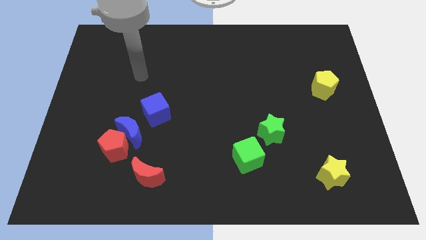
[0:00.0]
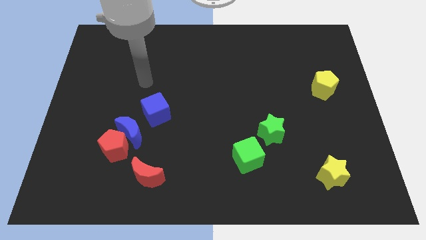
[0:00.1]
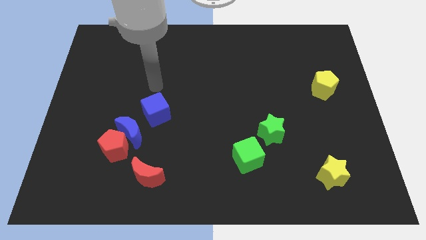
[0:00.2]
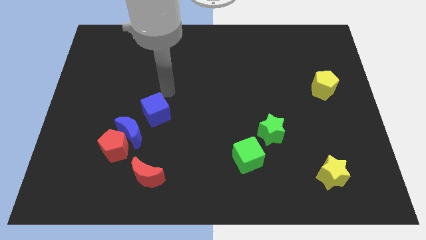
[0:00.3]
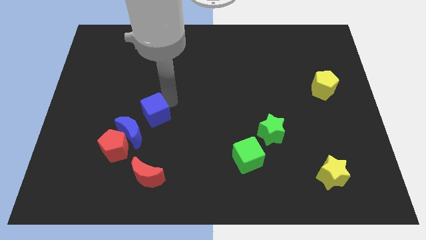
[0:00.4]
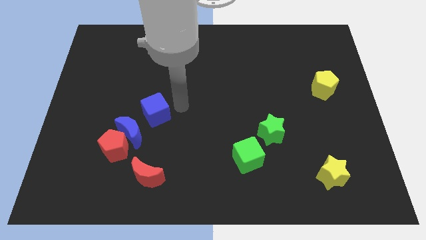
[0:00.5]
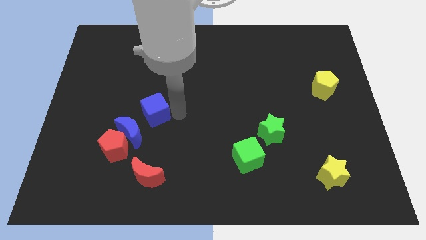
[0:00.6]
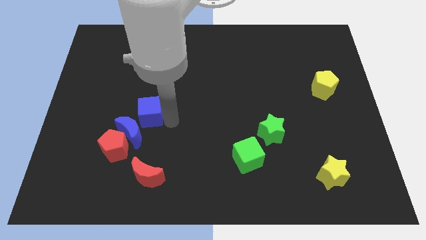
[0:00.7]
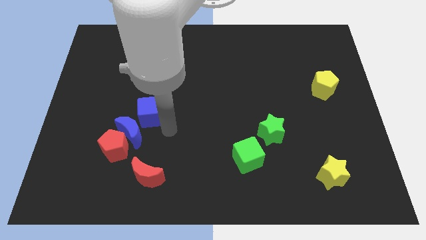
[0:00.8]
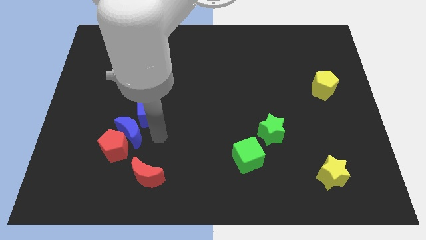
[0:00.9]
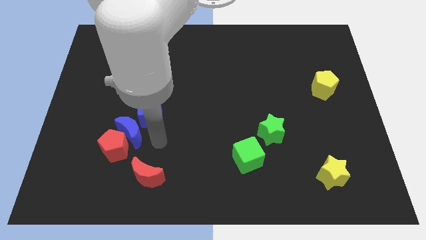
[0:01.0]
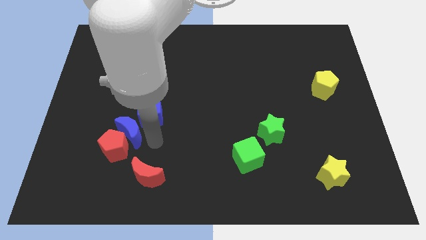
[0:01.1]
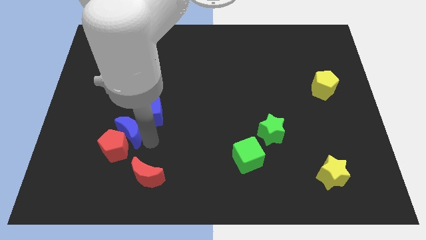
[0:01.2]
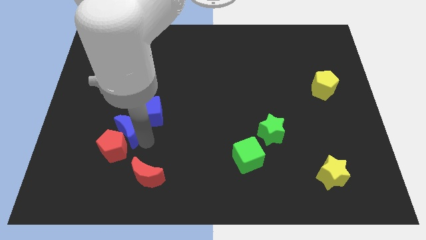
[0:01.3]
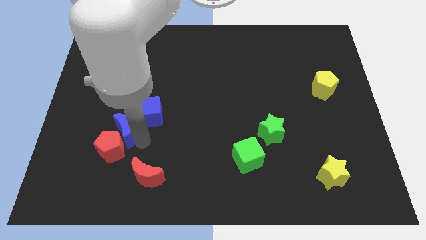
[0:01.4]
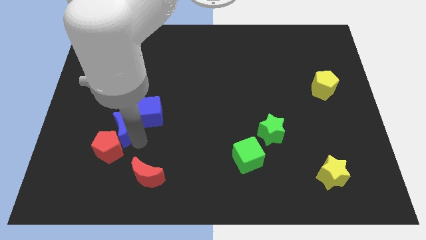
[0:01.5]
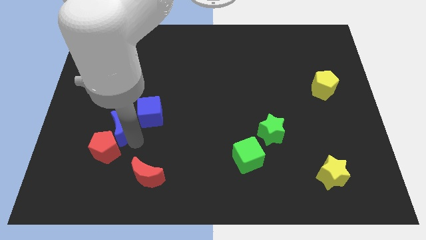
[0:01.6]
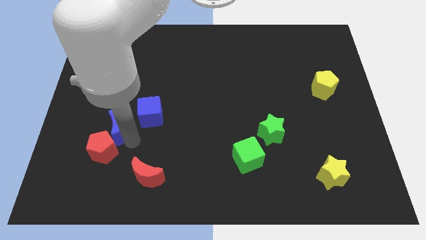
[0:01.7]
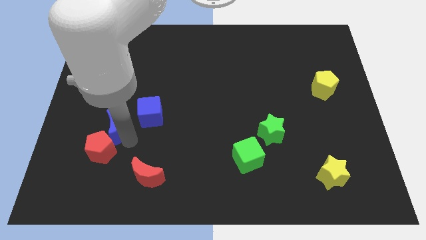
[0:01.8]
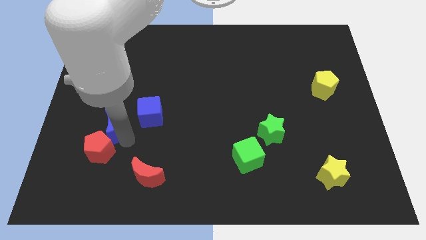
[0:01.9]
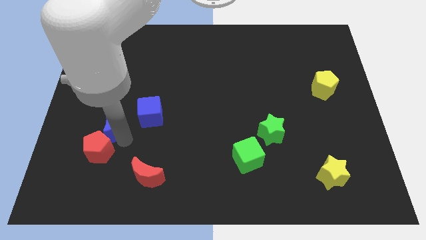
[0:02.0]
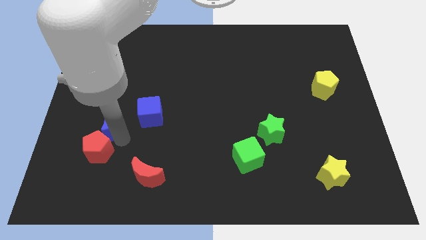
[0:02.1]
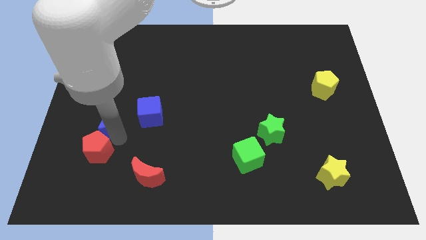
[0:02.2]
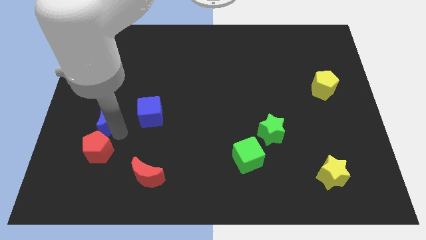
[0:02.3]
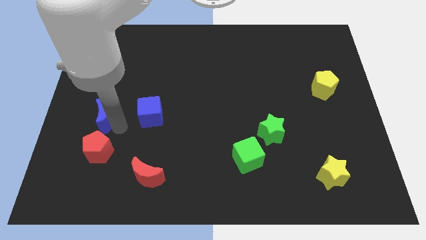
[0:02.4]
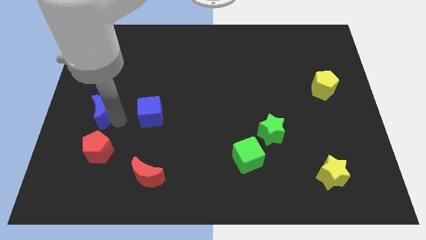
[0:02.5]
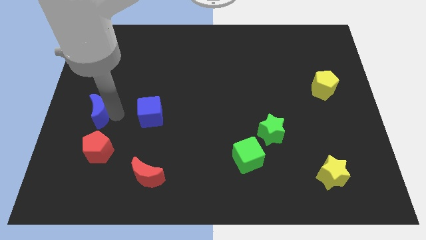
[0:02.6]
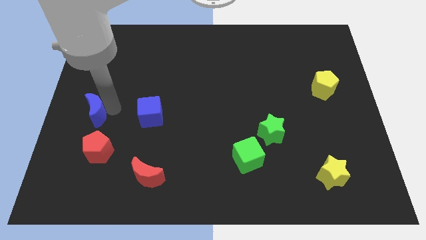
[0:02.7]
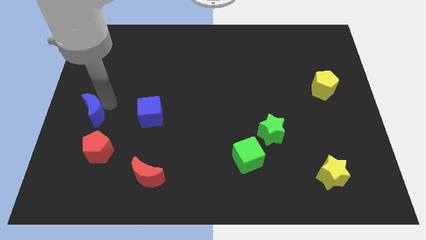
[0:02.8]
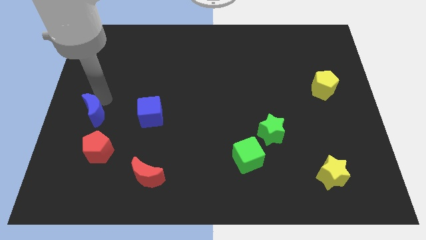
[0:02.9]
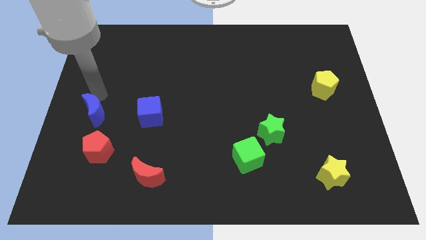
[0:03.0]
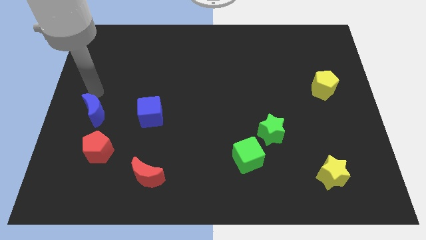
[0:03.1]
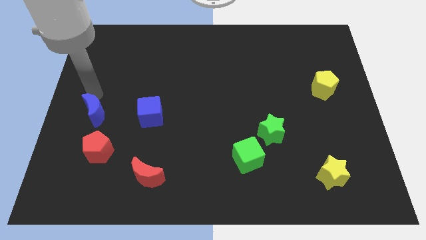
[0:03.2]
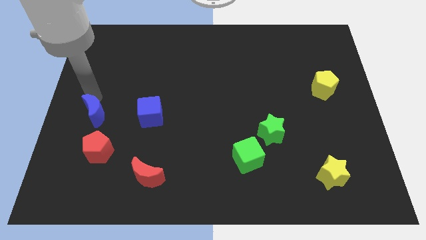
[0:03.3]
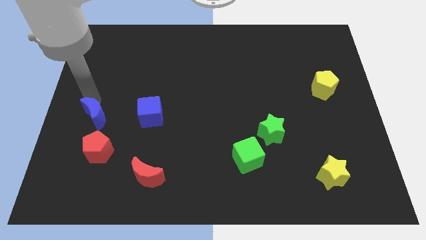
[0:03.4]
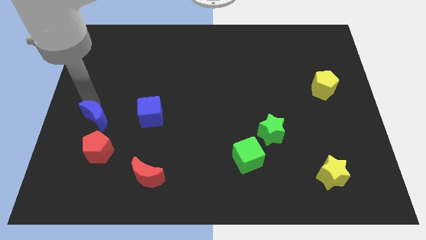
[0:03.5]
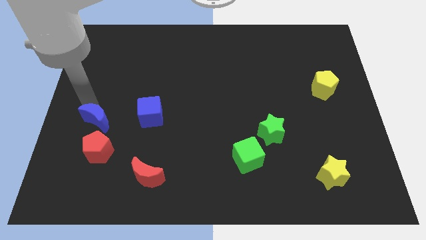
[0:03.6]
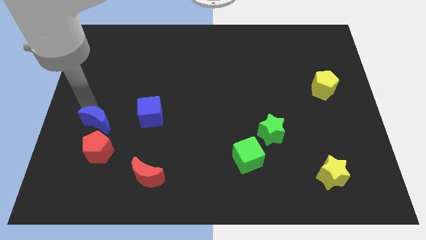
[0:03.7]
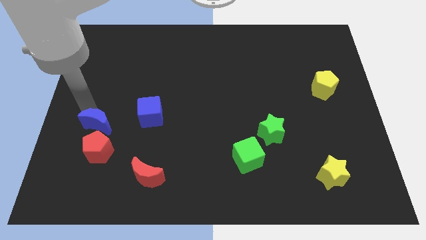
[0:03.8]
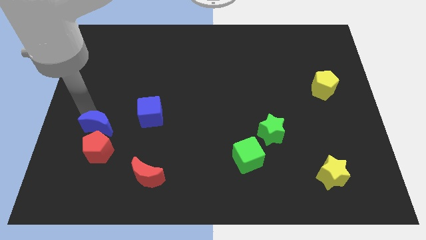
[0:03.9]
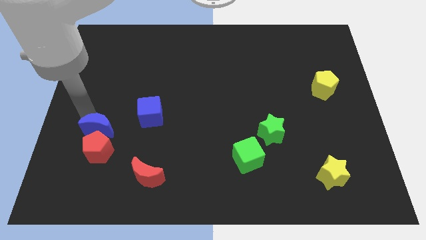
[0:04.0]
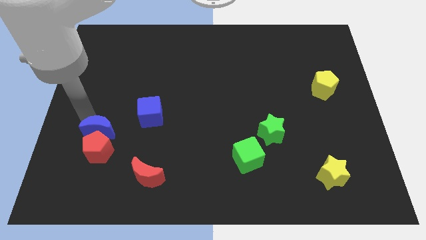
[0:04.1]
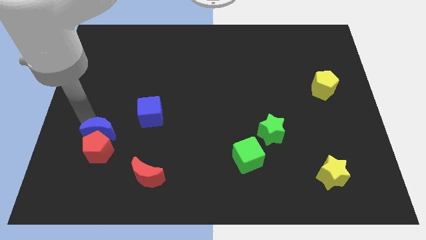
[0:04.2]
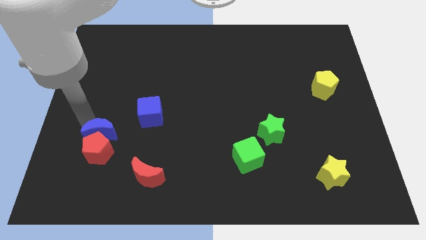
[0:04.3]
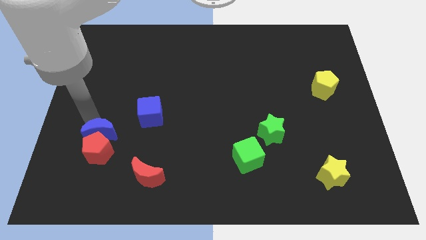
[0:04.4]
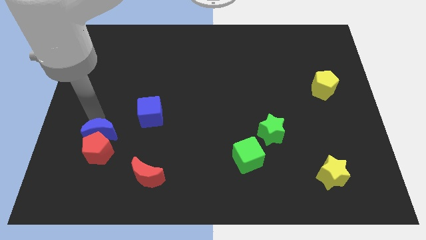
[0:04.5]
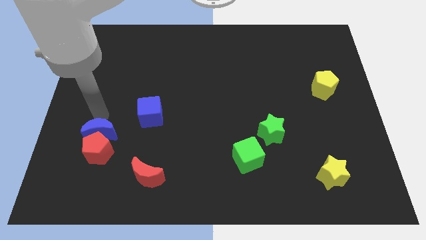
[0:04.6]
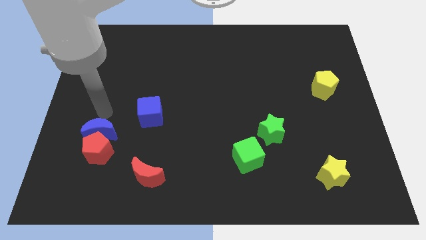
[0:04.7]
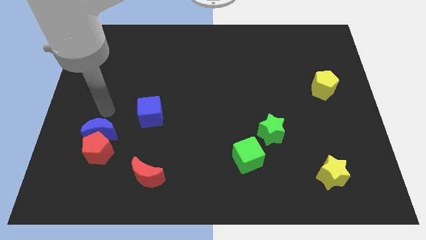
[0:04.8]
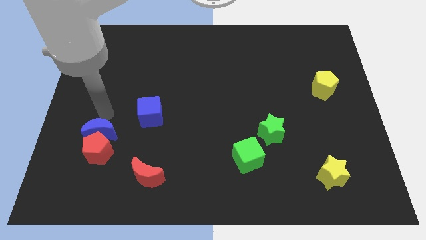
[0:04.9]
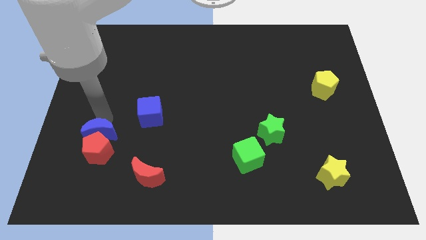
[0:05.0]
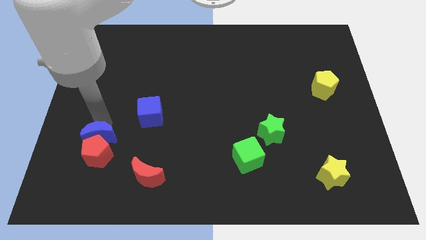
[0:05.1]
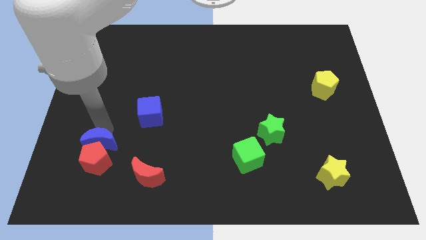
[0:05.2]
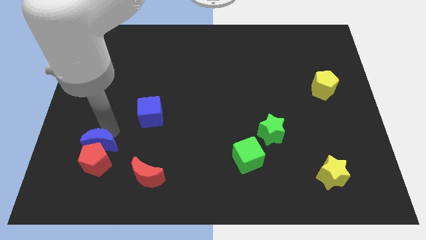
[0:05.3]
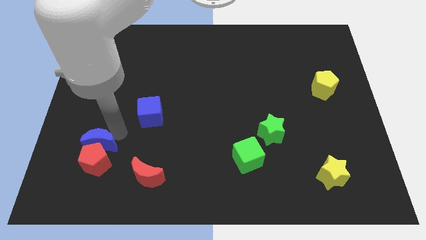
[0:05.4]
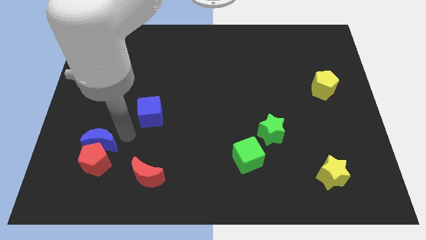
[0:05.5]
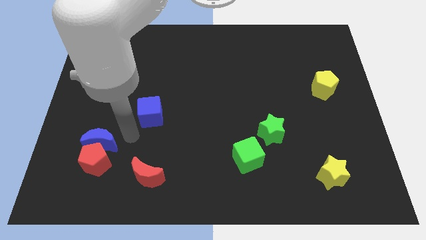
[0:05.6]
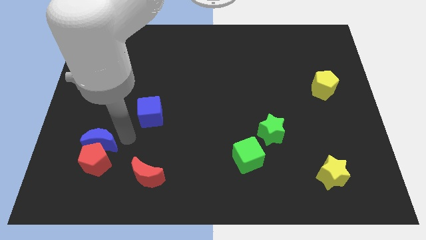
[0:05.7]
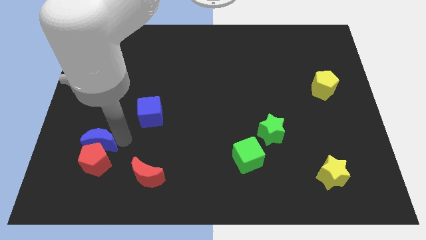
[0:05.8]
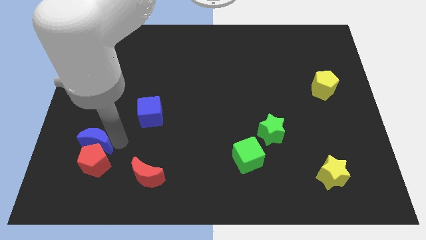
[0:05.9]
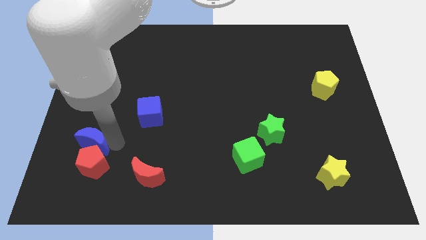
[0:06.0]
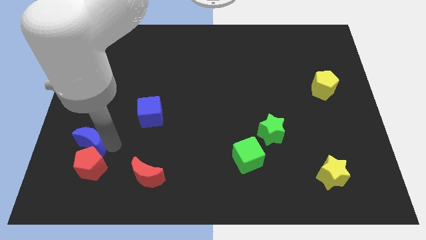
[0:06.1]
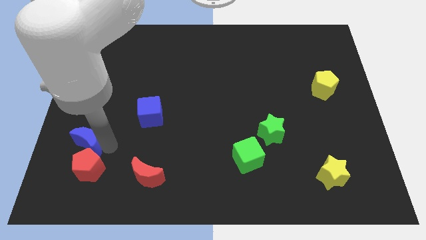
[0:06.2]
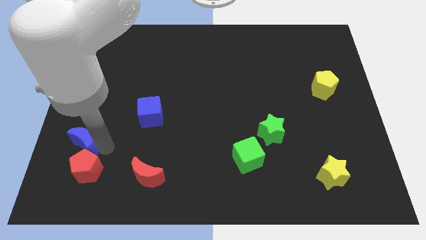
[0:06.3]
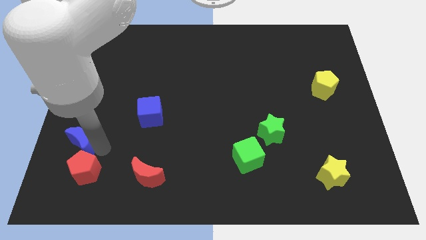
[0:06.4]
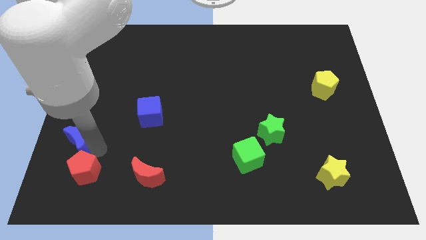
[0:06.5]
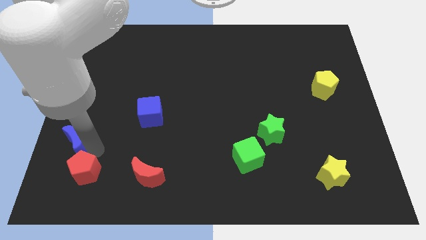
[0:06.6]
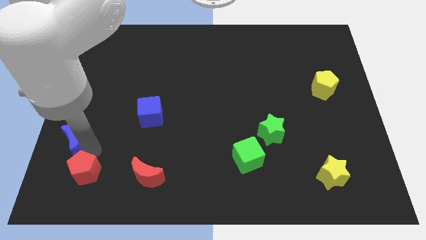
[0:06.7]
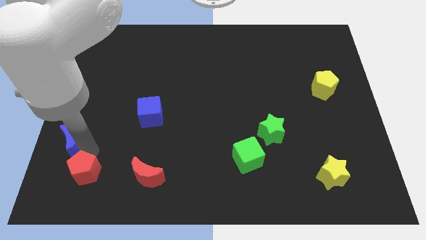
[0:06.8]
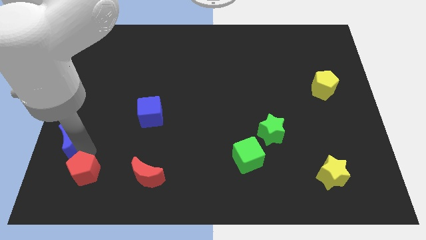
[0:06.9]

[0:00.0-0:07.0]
separate the blue moon from the red pentagon and blue cube

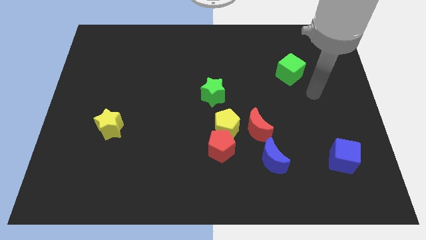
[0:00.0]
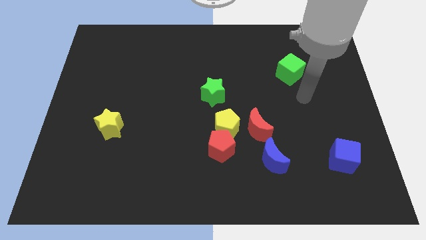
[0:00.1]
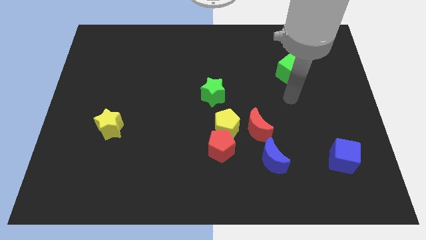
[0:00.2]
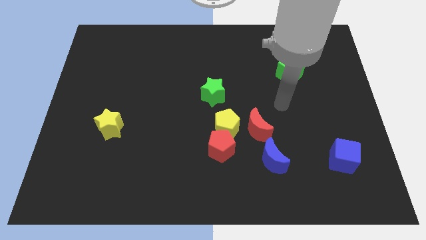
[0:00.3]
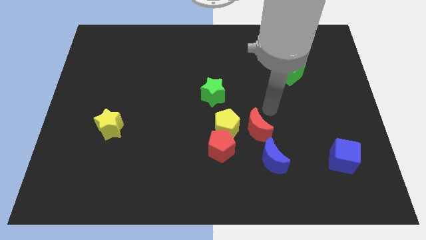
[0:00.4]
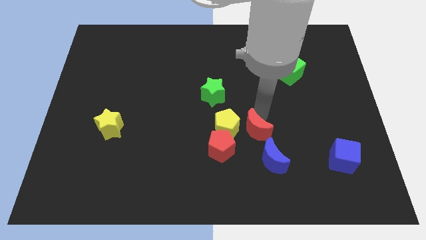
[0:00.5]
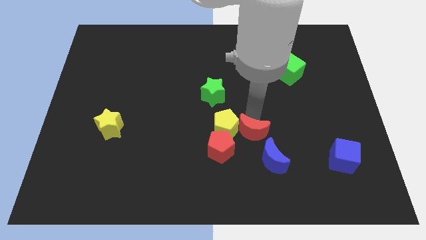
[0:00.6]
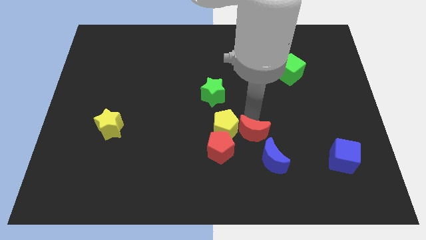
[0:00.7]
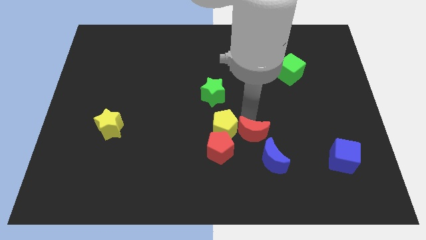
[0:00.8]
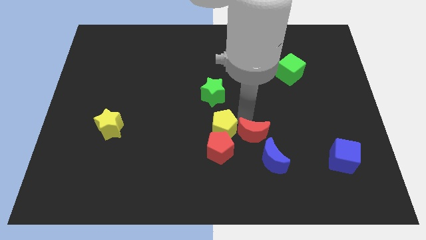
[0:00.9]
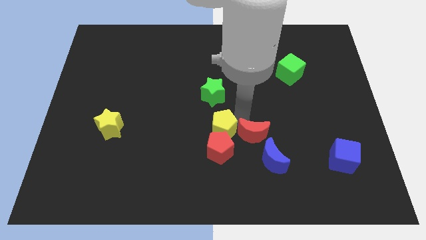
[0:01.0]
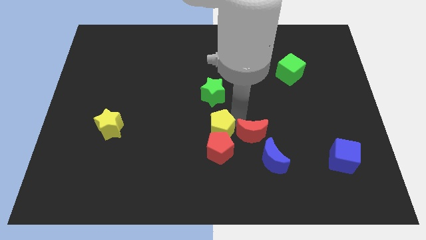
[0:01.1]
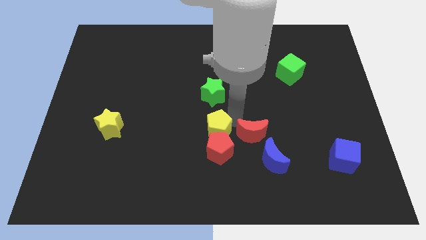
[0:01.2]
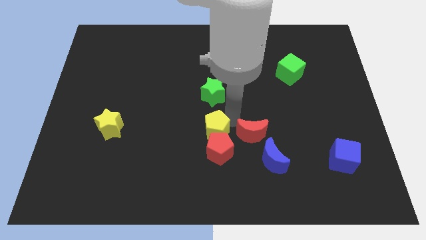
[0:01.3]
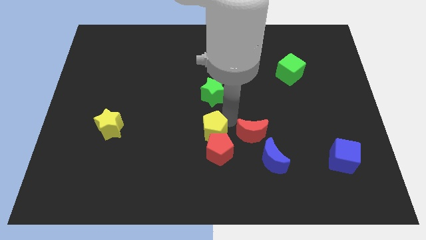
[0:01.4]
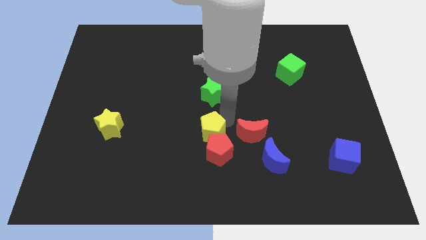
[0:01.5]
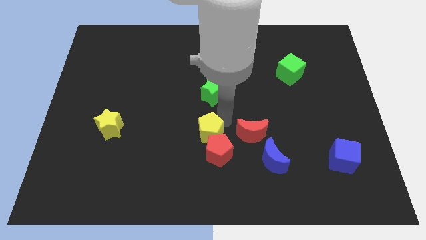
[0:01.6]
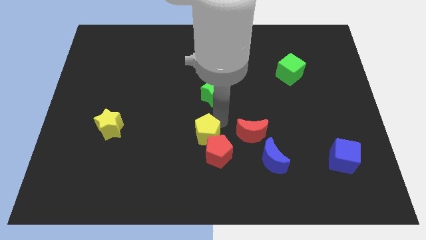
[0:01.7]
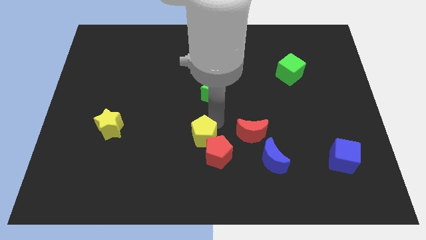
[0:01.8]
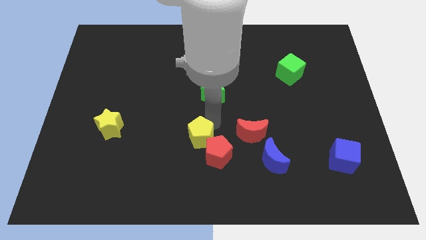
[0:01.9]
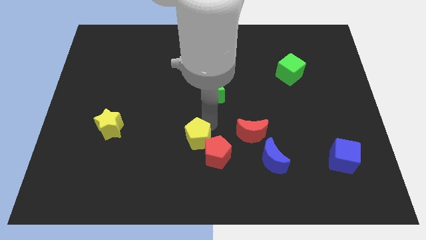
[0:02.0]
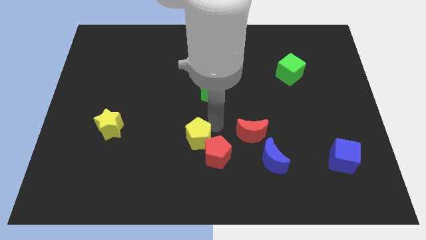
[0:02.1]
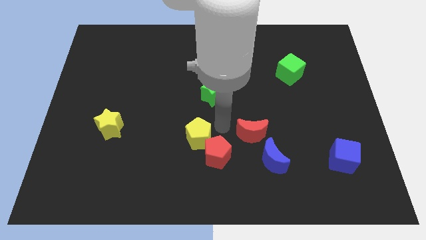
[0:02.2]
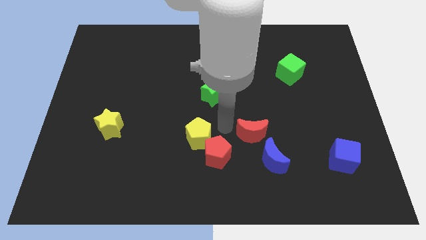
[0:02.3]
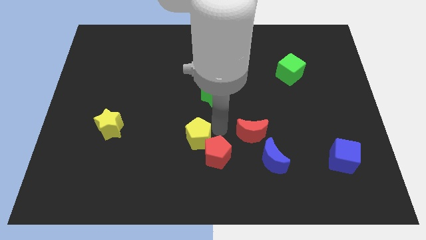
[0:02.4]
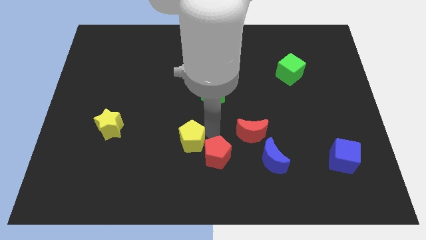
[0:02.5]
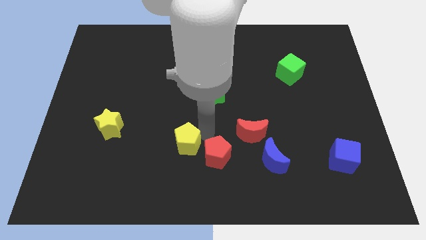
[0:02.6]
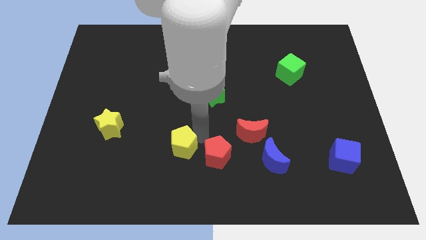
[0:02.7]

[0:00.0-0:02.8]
move the yellow pentagon away from the group
